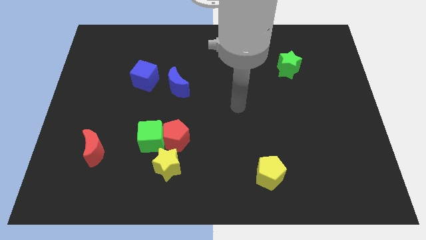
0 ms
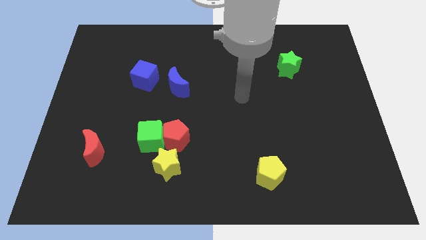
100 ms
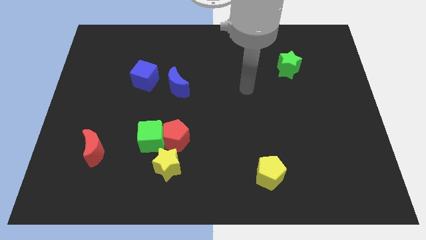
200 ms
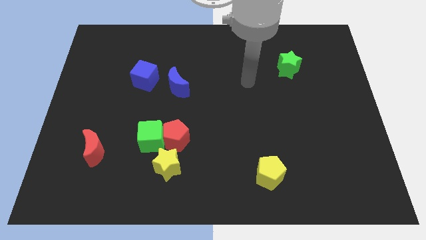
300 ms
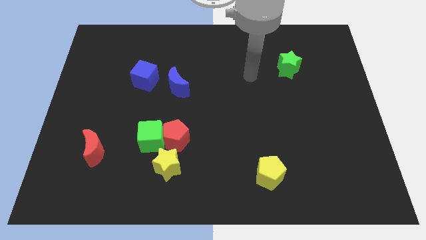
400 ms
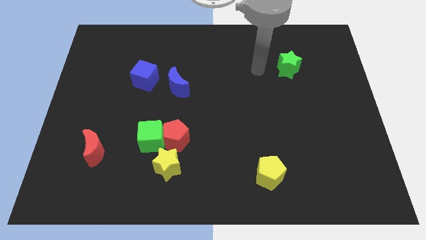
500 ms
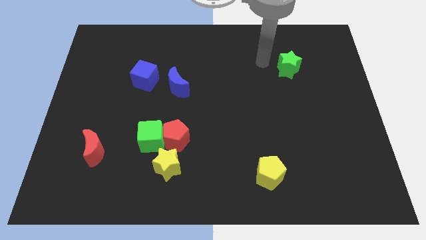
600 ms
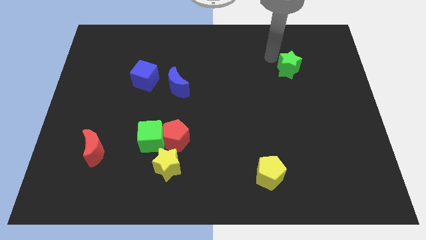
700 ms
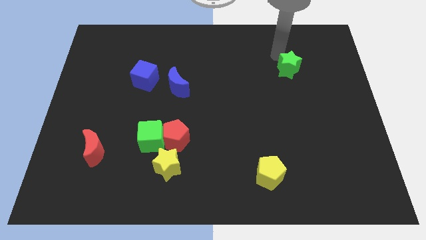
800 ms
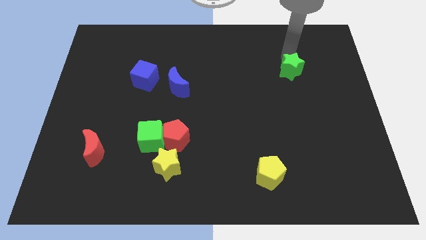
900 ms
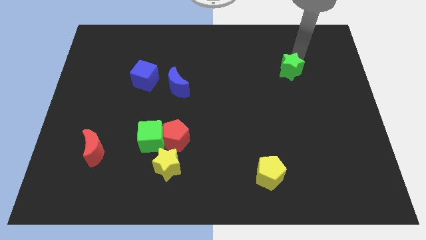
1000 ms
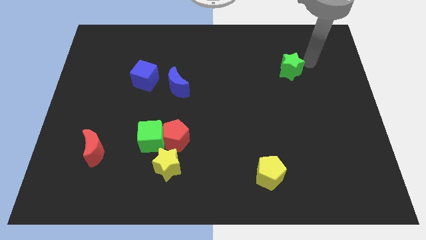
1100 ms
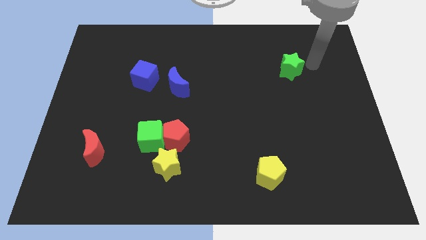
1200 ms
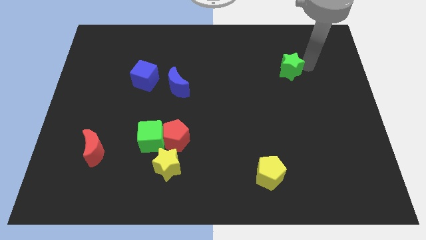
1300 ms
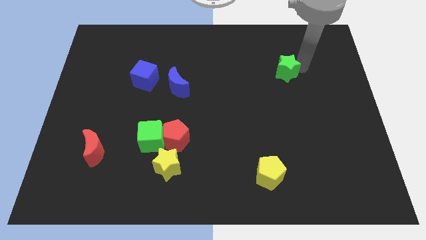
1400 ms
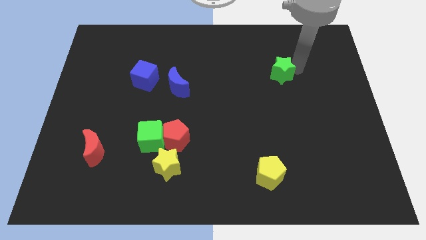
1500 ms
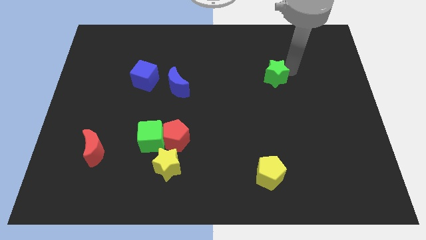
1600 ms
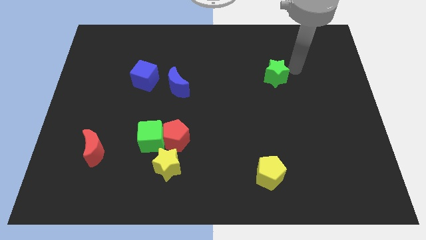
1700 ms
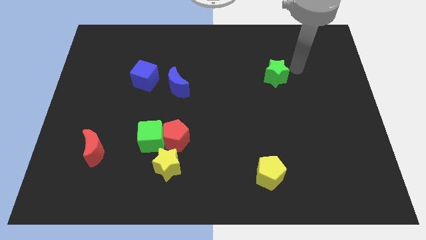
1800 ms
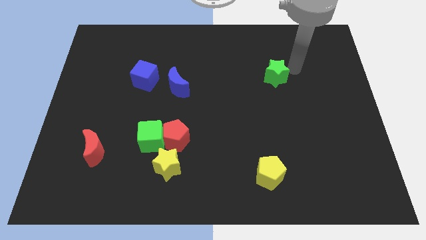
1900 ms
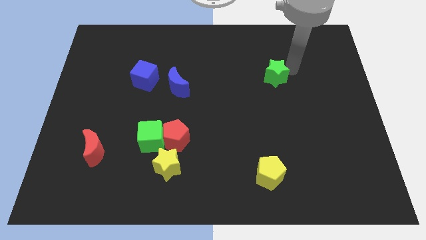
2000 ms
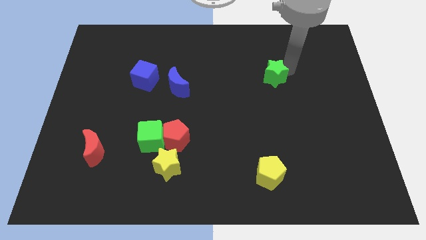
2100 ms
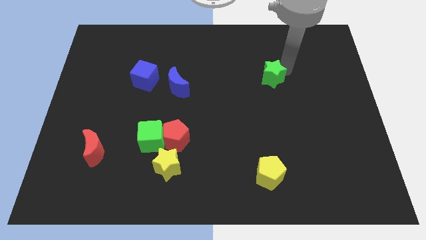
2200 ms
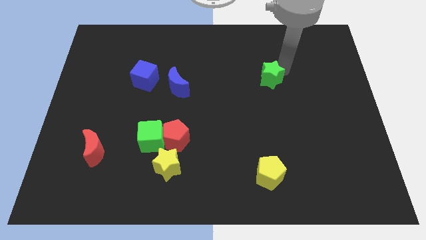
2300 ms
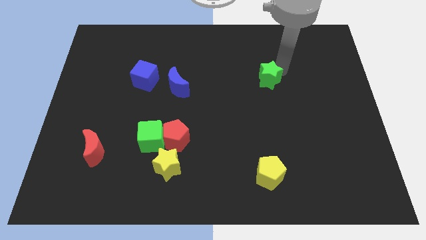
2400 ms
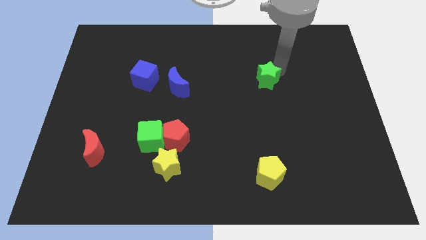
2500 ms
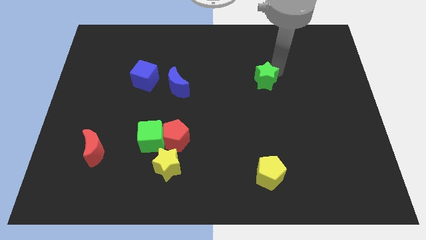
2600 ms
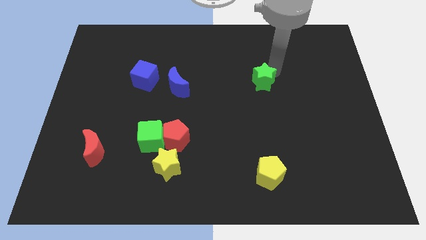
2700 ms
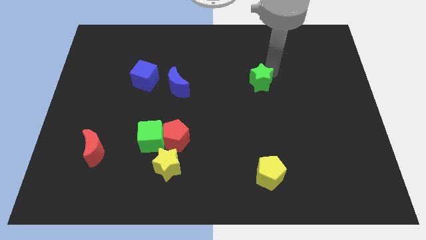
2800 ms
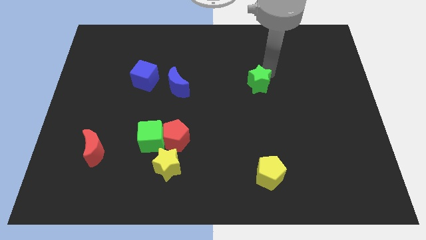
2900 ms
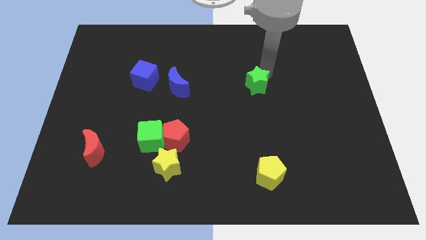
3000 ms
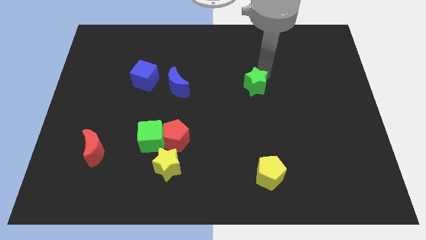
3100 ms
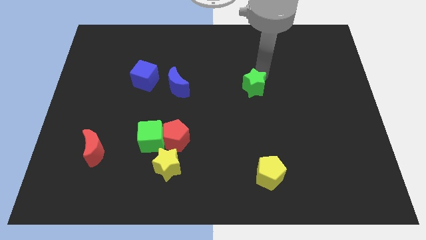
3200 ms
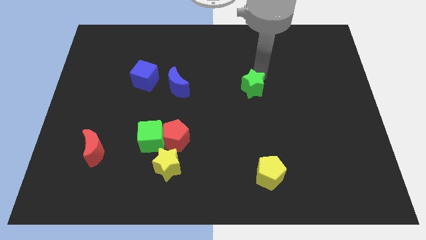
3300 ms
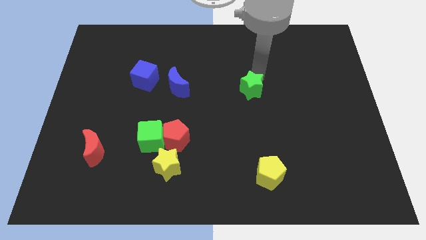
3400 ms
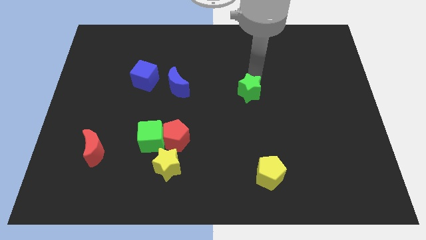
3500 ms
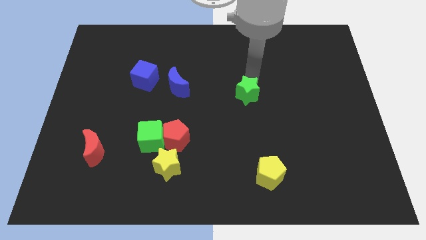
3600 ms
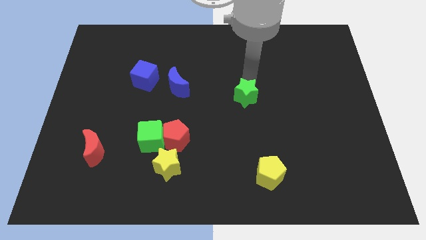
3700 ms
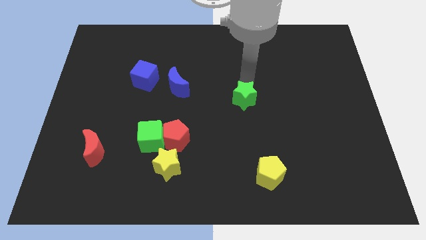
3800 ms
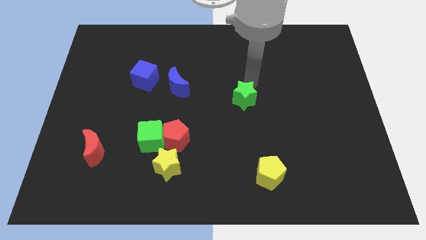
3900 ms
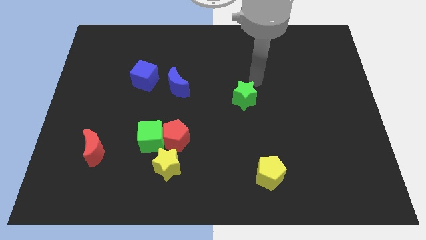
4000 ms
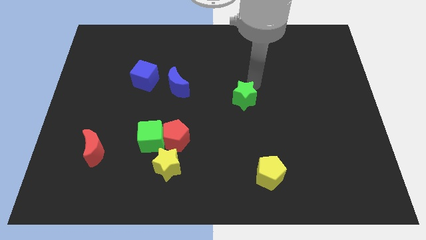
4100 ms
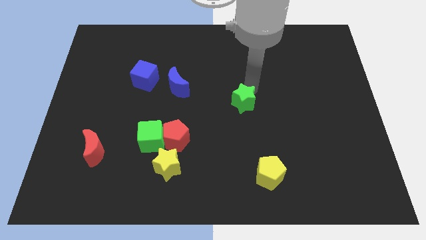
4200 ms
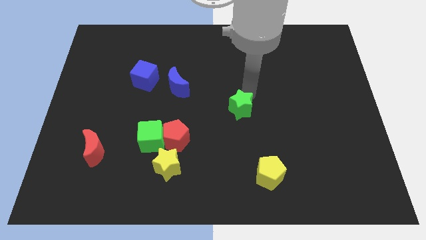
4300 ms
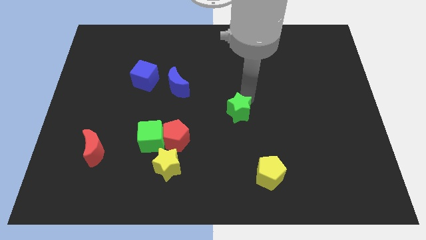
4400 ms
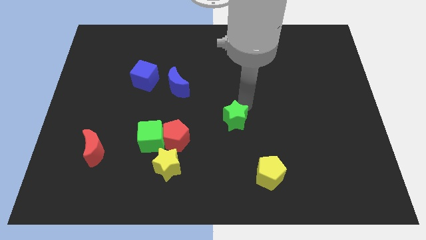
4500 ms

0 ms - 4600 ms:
slide the green star down and then to the left

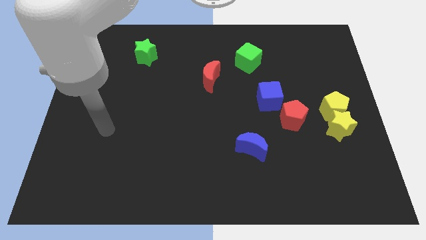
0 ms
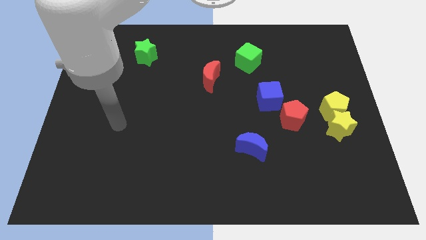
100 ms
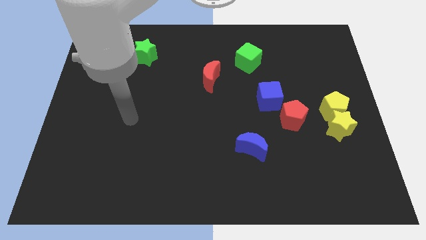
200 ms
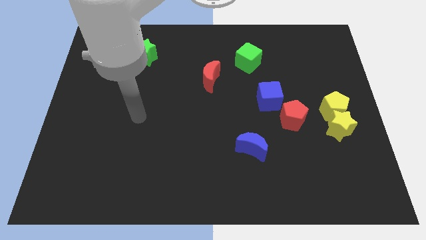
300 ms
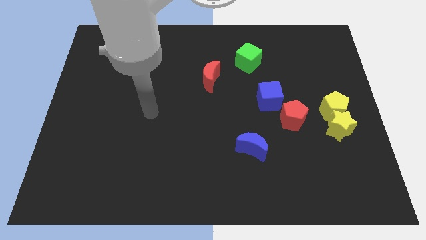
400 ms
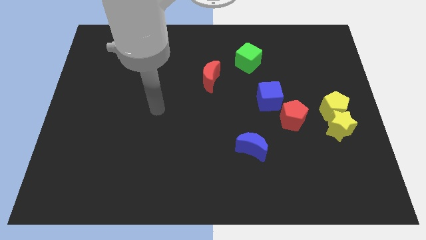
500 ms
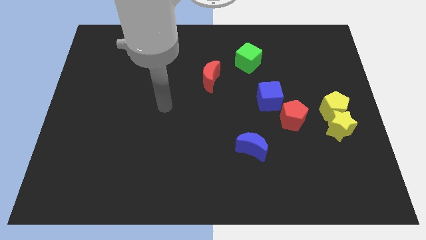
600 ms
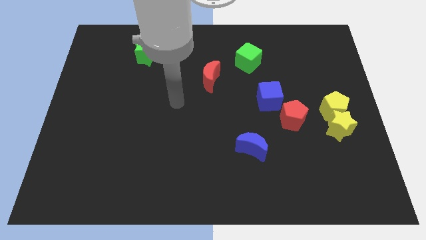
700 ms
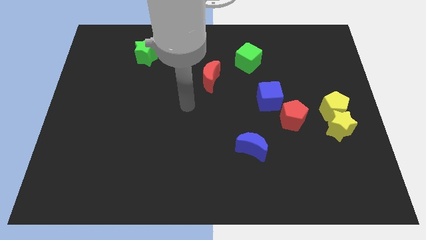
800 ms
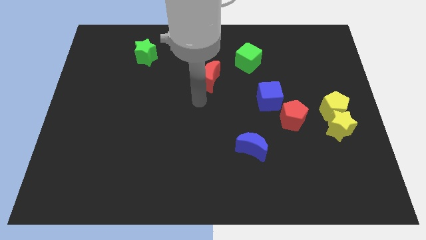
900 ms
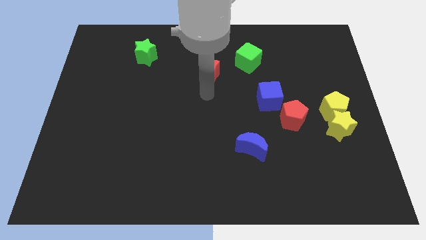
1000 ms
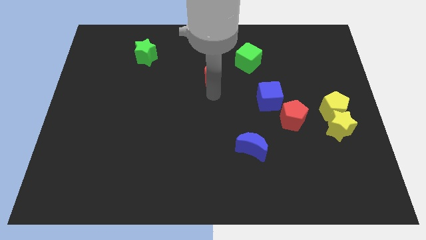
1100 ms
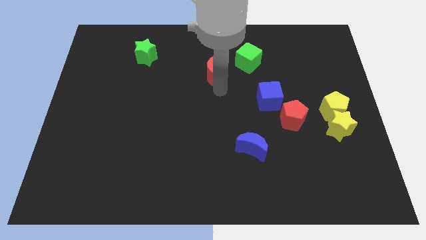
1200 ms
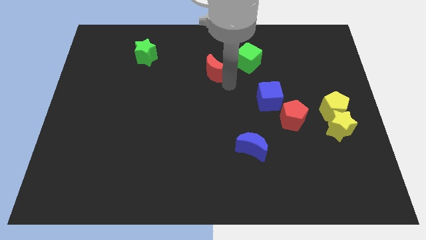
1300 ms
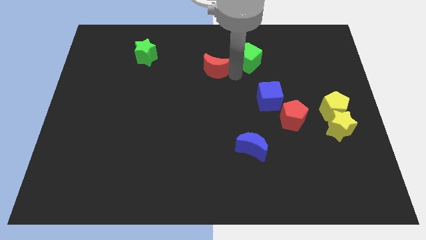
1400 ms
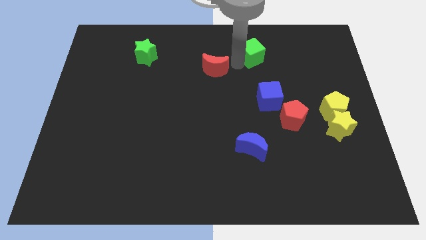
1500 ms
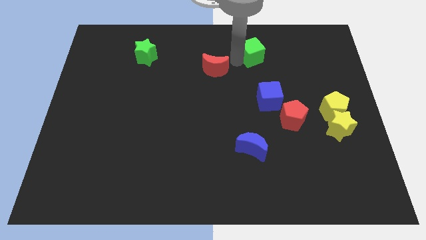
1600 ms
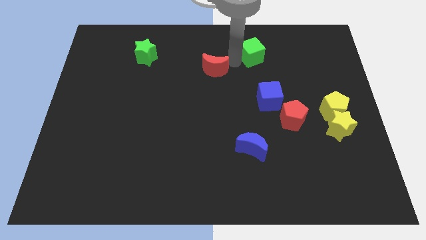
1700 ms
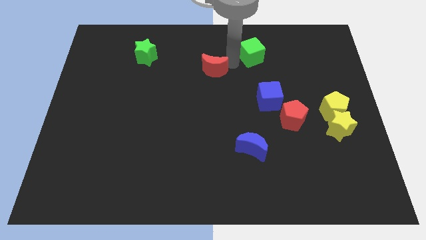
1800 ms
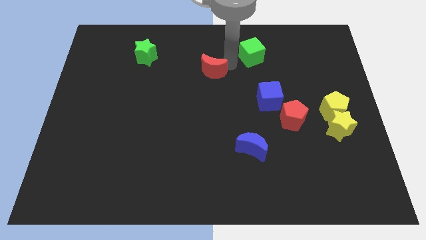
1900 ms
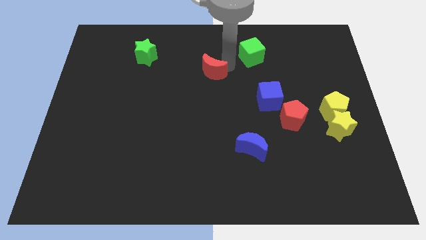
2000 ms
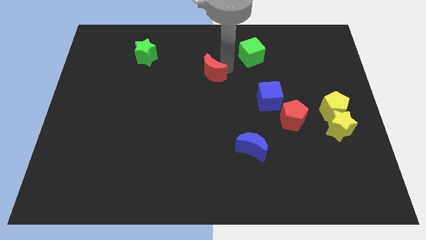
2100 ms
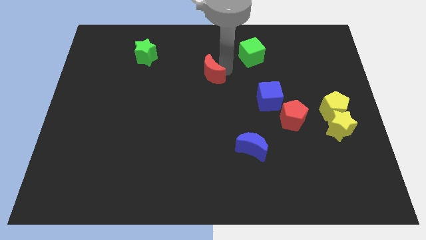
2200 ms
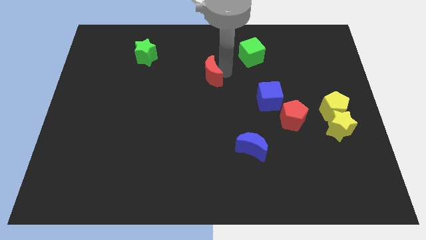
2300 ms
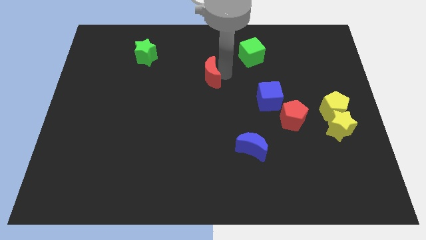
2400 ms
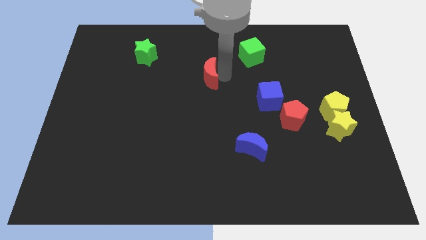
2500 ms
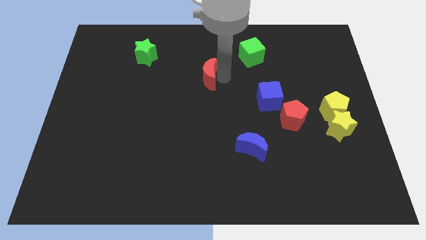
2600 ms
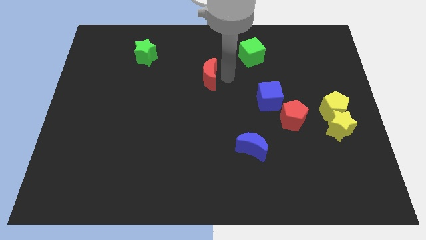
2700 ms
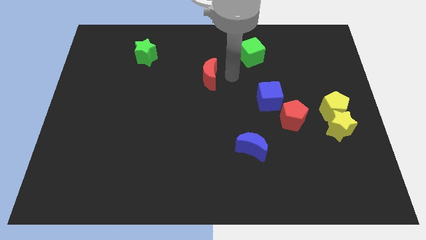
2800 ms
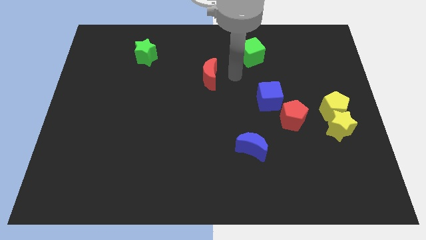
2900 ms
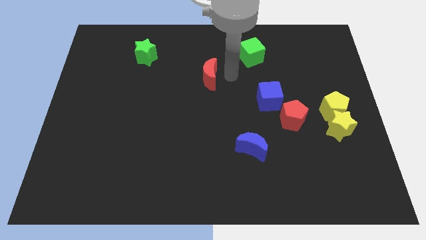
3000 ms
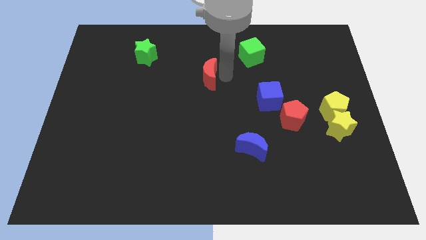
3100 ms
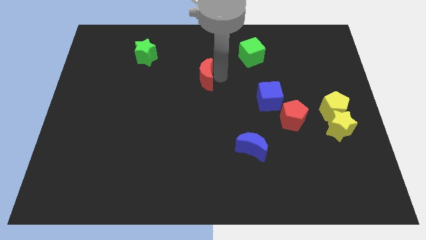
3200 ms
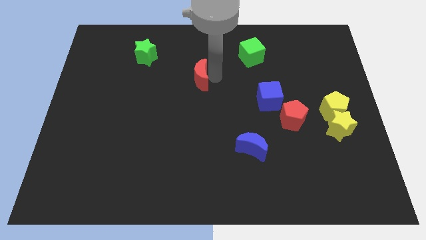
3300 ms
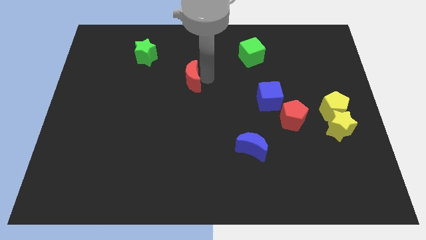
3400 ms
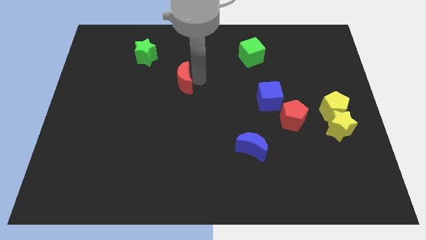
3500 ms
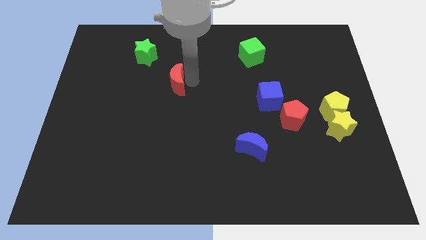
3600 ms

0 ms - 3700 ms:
move the red moon a little bit left

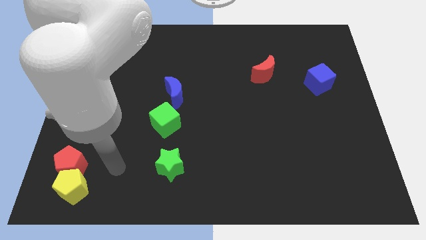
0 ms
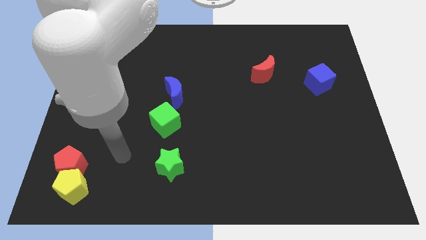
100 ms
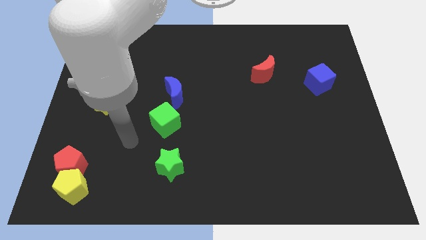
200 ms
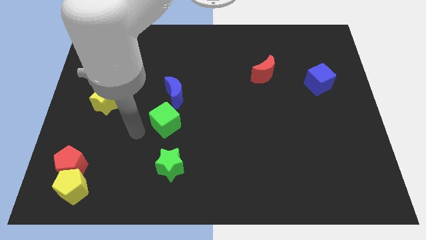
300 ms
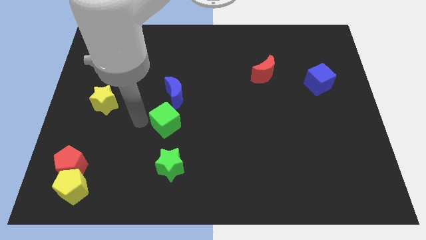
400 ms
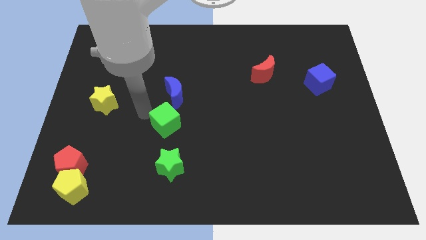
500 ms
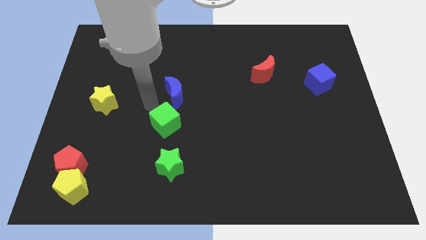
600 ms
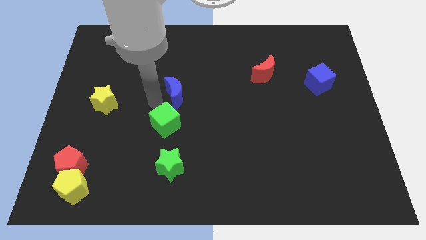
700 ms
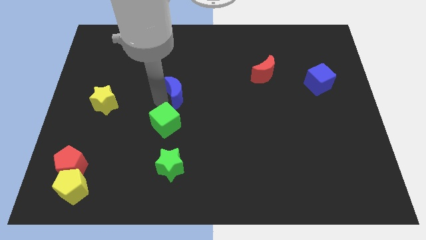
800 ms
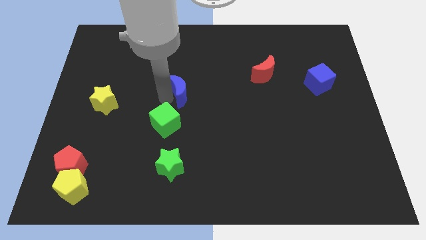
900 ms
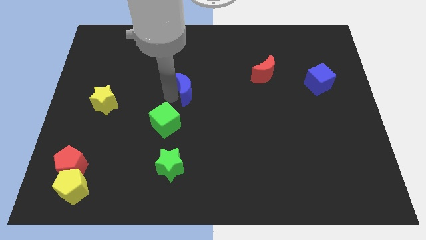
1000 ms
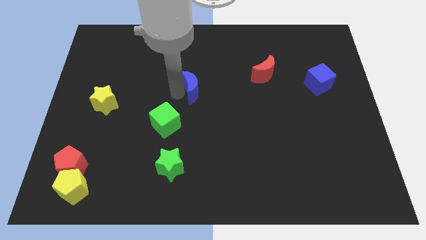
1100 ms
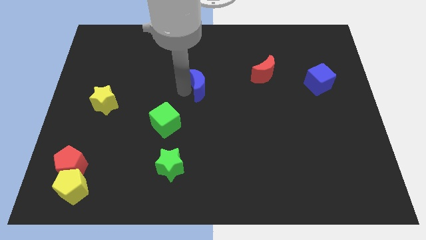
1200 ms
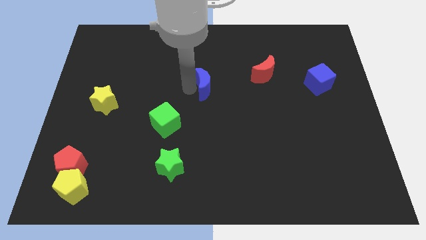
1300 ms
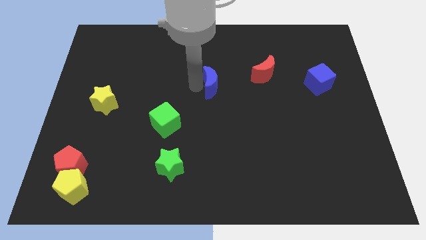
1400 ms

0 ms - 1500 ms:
slightly push the blue moon to the right
